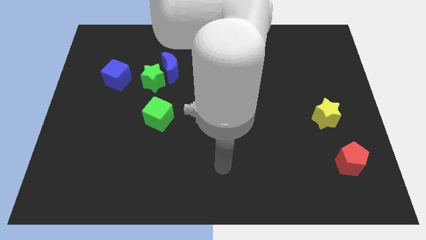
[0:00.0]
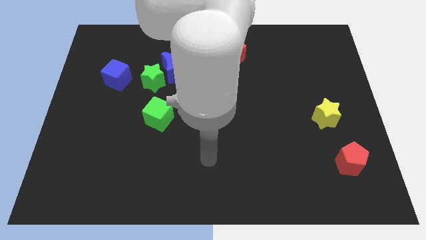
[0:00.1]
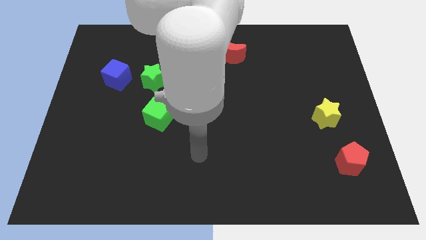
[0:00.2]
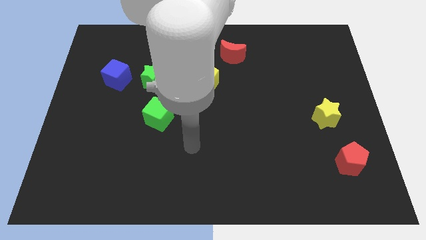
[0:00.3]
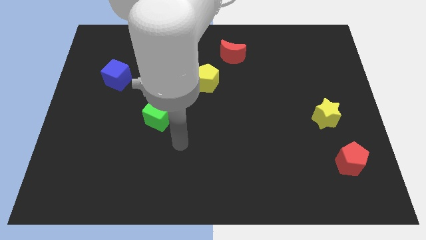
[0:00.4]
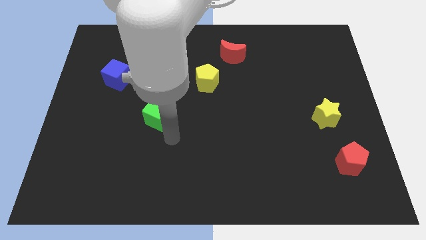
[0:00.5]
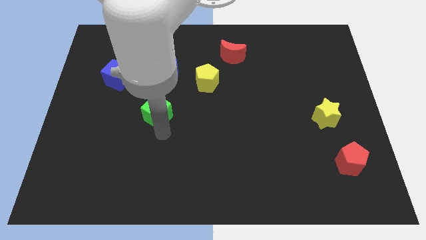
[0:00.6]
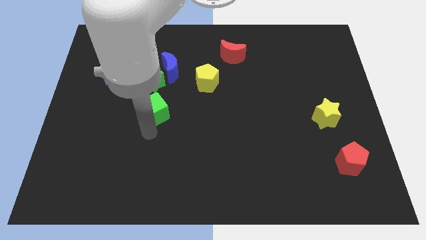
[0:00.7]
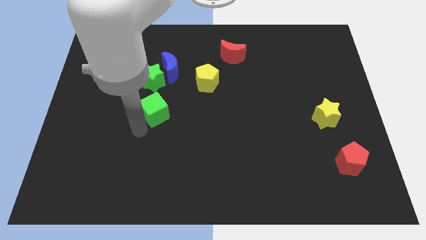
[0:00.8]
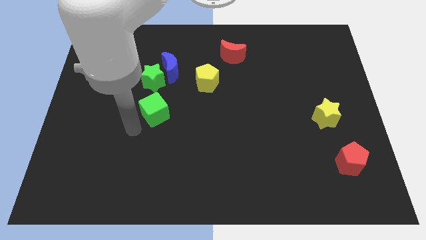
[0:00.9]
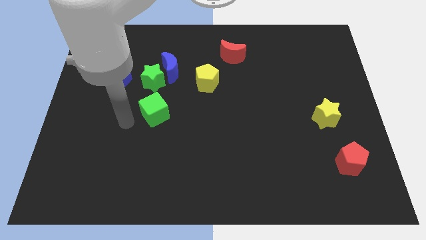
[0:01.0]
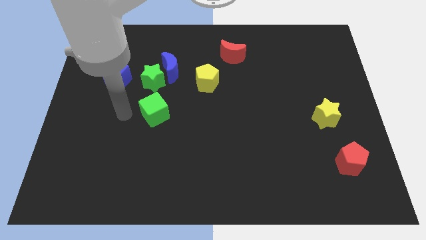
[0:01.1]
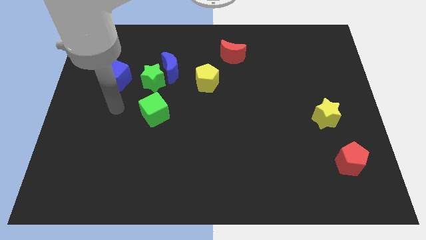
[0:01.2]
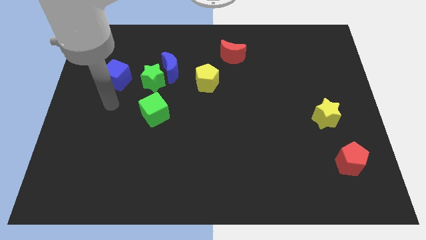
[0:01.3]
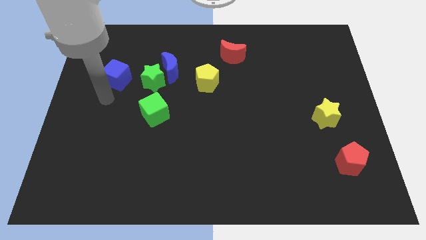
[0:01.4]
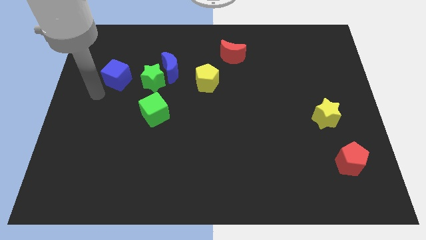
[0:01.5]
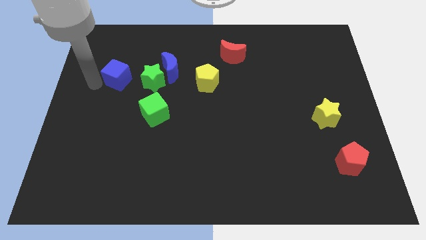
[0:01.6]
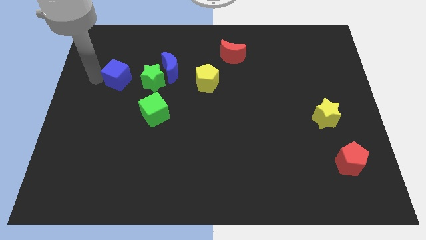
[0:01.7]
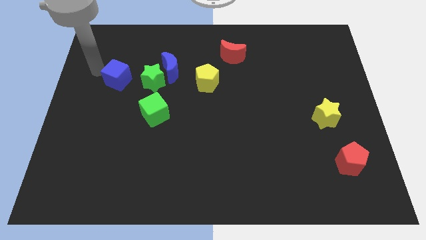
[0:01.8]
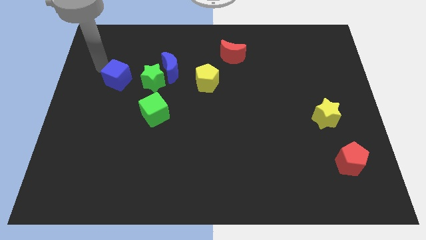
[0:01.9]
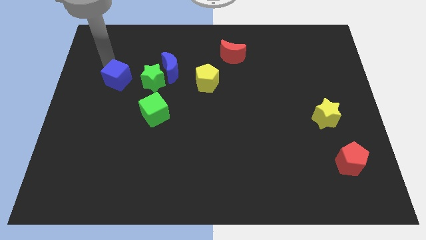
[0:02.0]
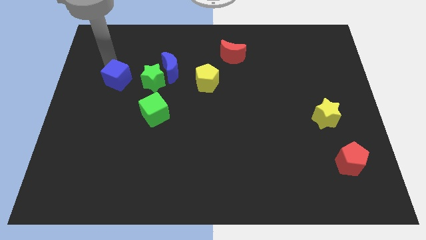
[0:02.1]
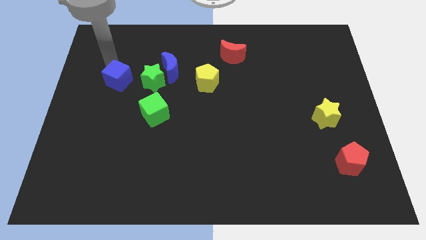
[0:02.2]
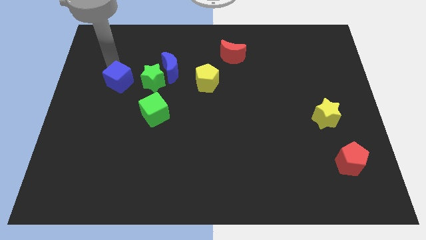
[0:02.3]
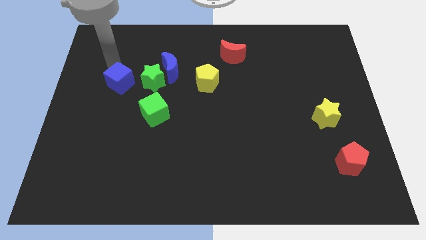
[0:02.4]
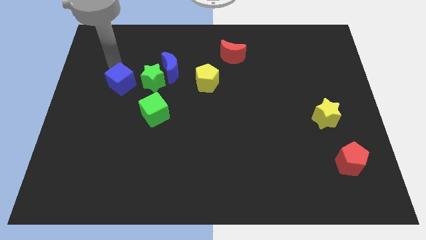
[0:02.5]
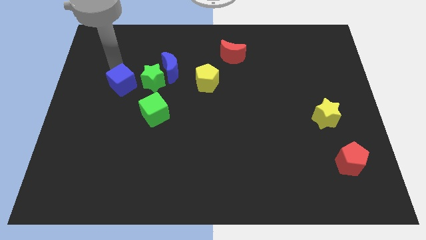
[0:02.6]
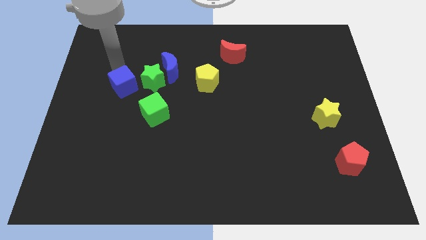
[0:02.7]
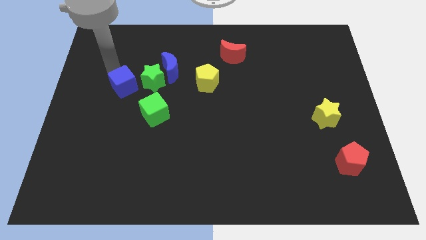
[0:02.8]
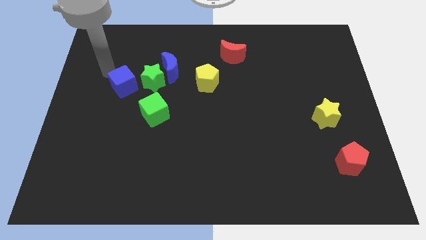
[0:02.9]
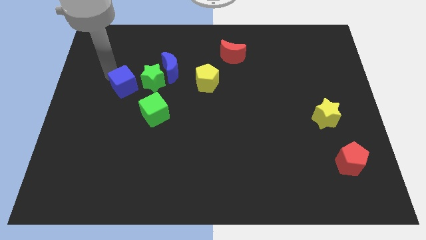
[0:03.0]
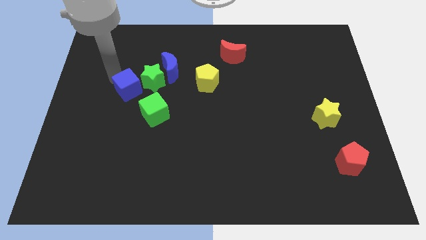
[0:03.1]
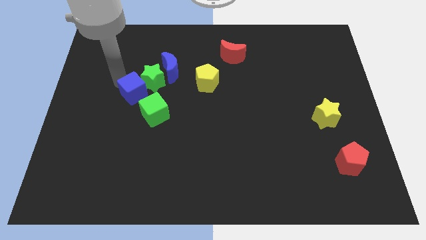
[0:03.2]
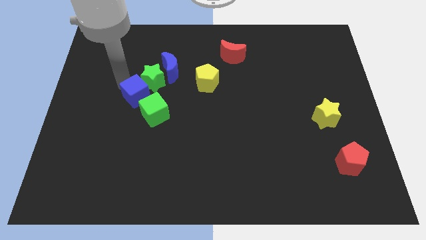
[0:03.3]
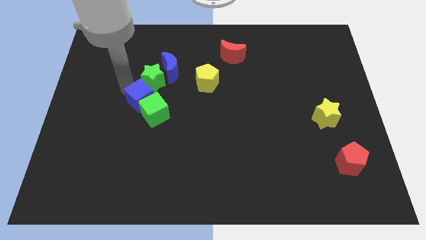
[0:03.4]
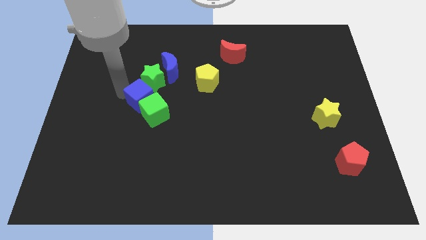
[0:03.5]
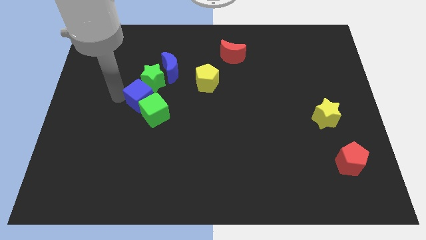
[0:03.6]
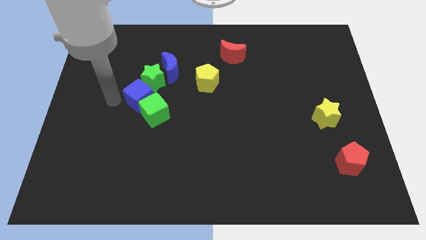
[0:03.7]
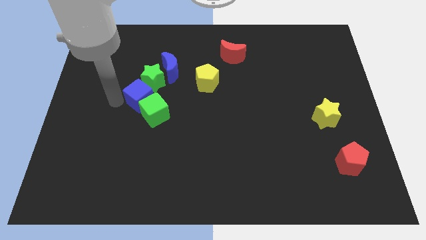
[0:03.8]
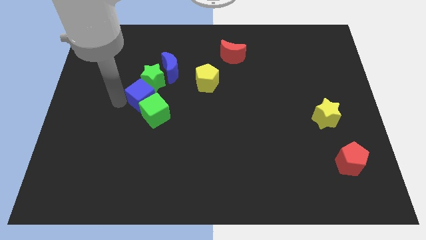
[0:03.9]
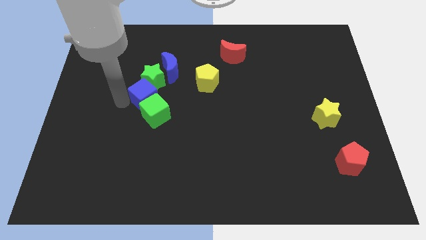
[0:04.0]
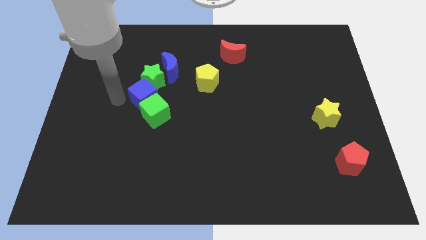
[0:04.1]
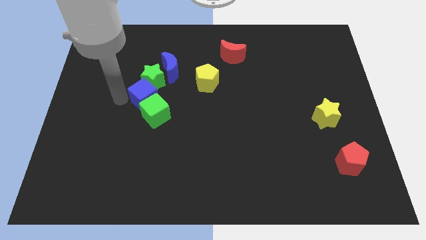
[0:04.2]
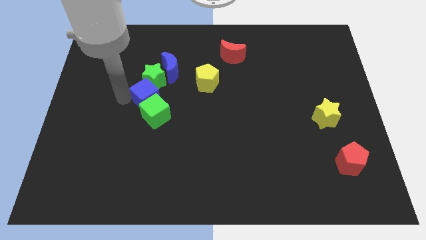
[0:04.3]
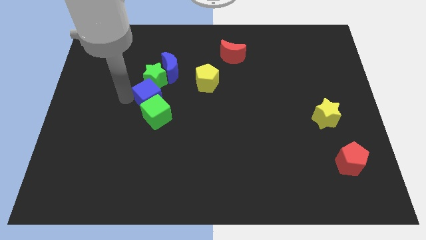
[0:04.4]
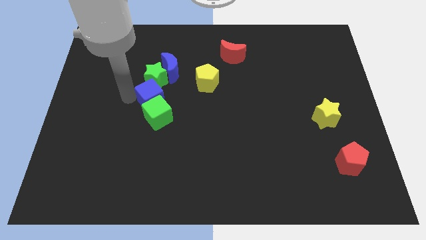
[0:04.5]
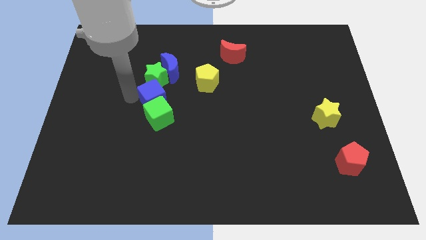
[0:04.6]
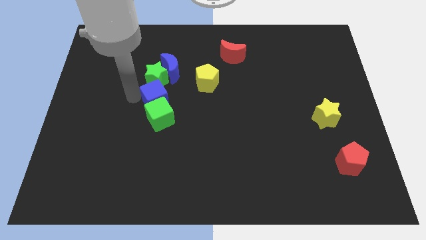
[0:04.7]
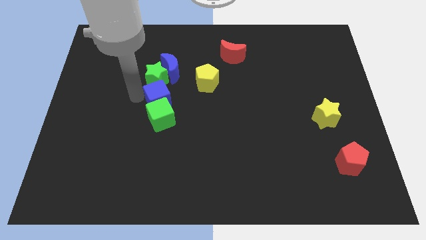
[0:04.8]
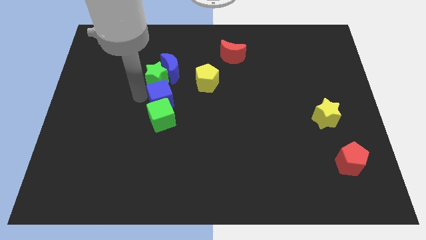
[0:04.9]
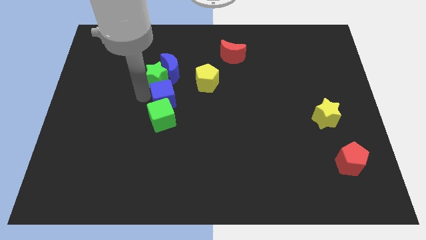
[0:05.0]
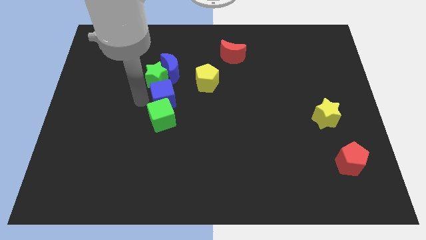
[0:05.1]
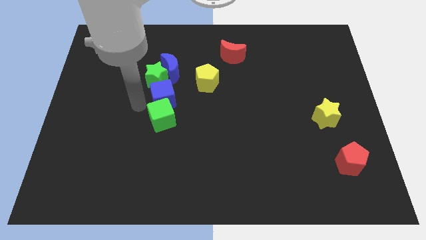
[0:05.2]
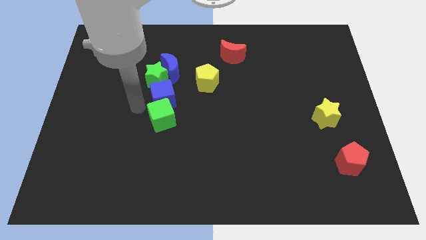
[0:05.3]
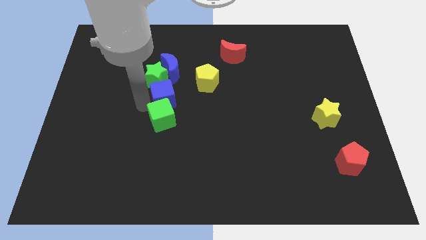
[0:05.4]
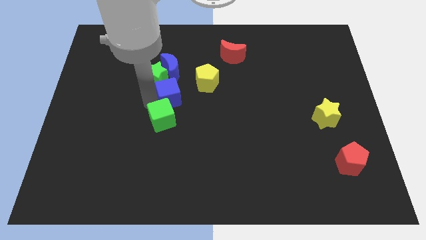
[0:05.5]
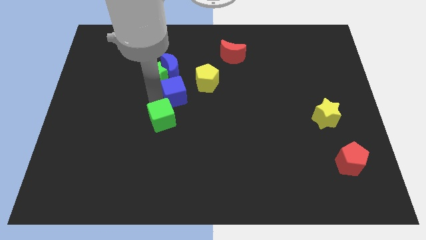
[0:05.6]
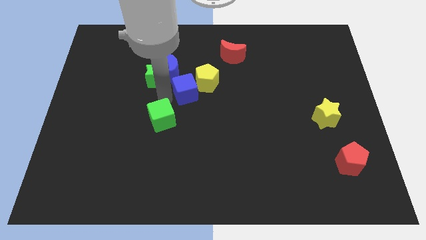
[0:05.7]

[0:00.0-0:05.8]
put the blue cube next to the yellow pentagon

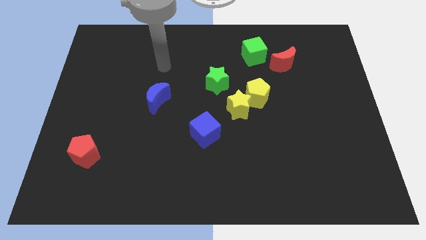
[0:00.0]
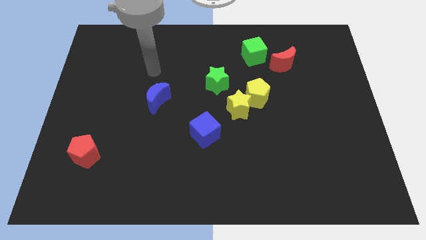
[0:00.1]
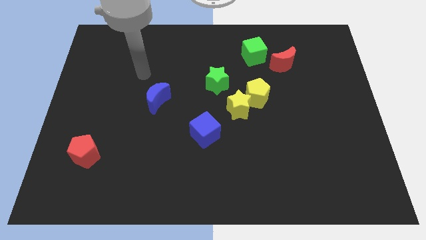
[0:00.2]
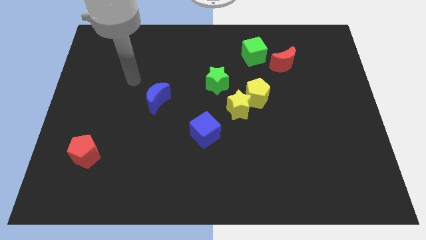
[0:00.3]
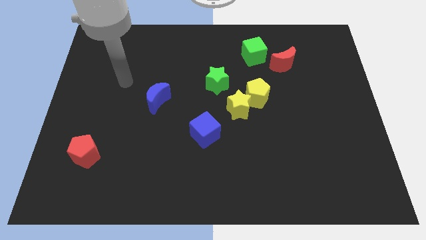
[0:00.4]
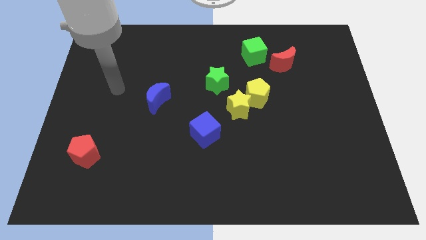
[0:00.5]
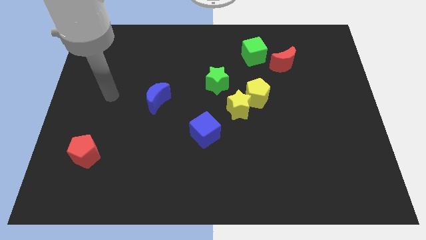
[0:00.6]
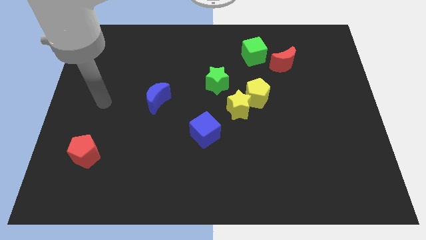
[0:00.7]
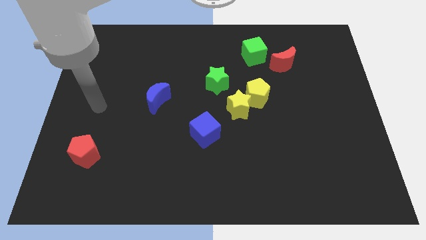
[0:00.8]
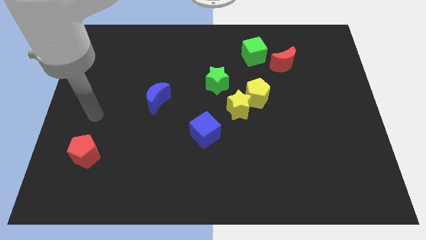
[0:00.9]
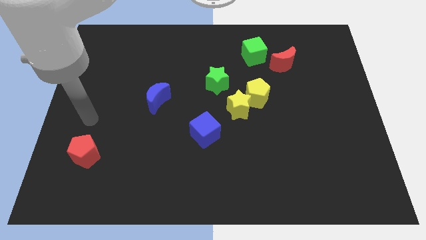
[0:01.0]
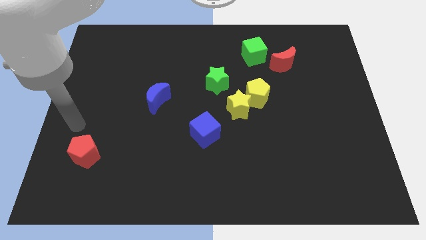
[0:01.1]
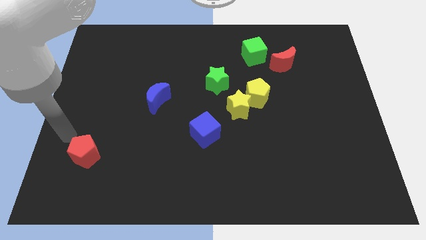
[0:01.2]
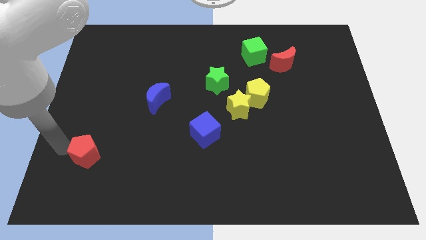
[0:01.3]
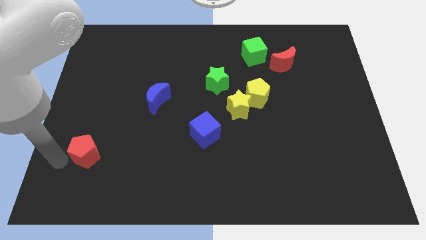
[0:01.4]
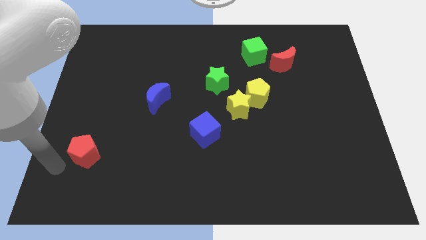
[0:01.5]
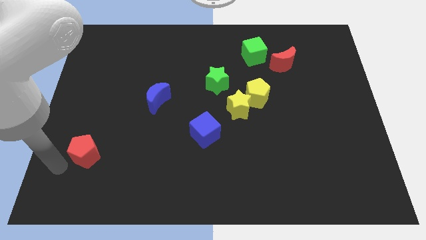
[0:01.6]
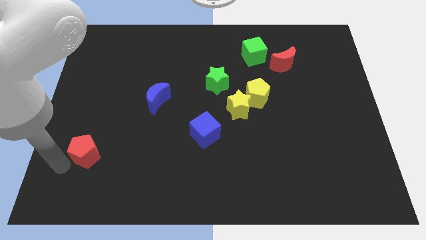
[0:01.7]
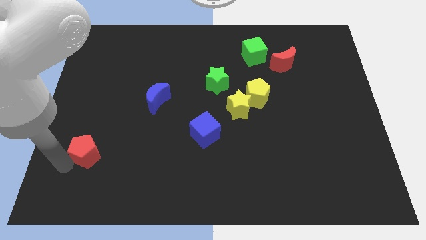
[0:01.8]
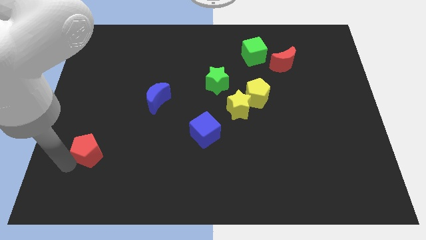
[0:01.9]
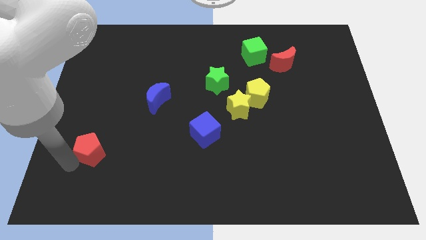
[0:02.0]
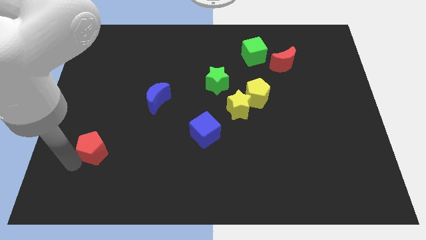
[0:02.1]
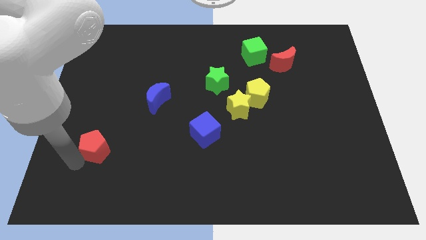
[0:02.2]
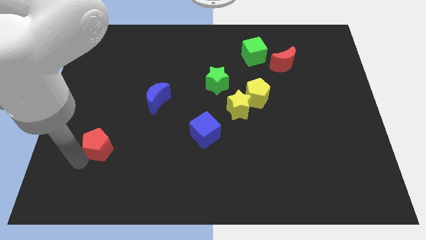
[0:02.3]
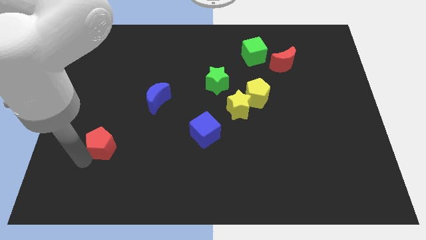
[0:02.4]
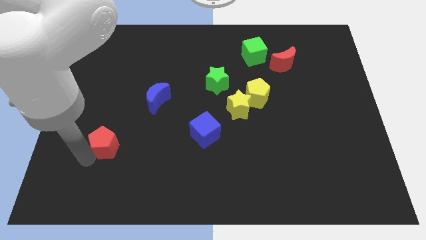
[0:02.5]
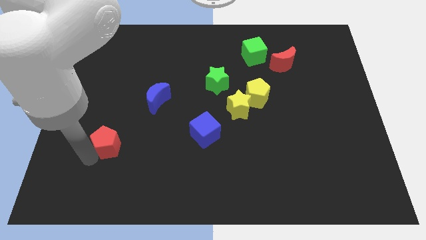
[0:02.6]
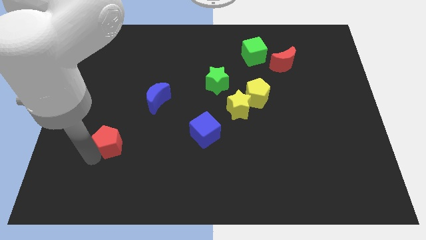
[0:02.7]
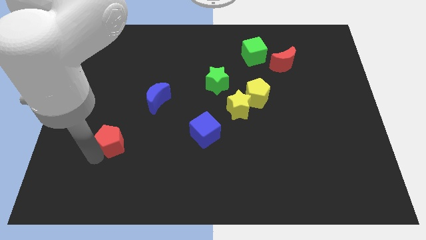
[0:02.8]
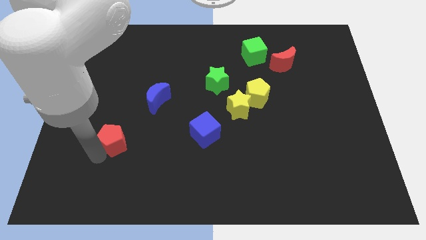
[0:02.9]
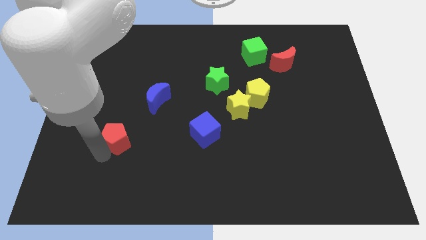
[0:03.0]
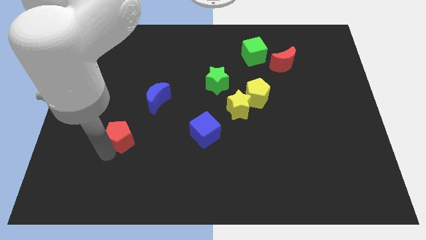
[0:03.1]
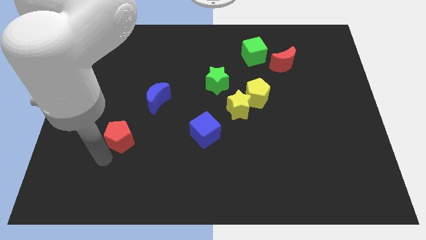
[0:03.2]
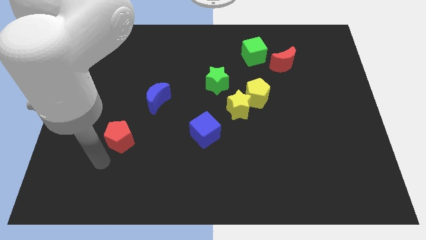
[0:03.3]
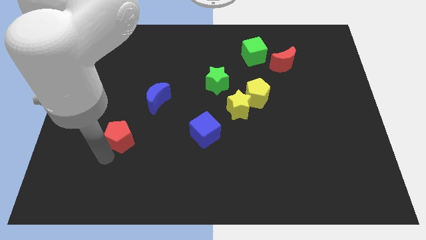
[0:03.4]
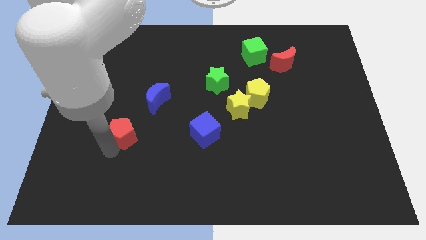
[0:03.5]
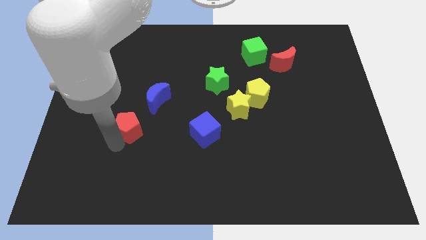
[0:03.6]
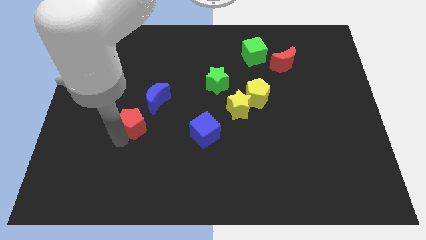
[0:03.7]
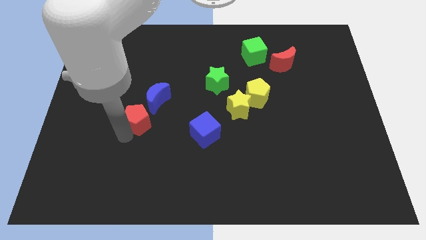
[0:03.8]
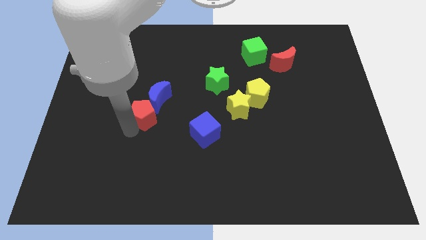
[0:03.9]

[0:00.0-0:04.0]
push the red pentagon to the blue moon
